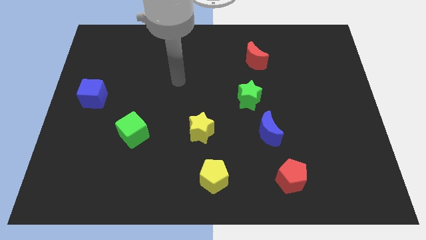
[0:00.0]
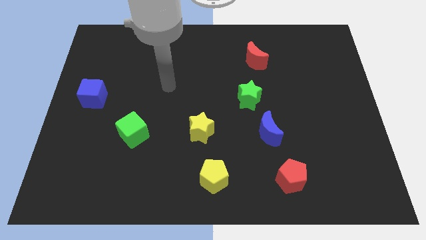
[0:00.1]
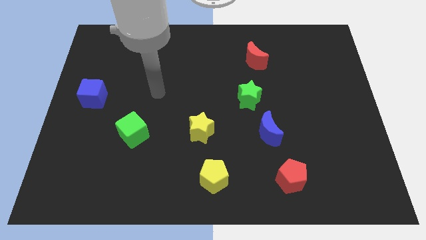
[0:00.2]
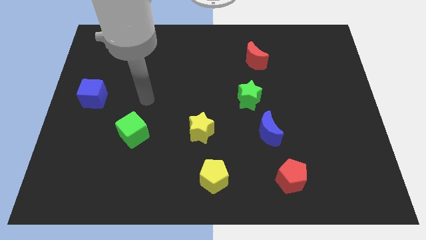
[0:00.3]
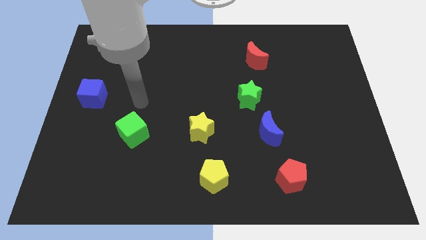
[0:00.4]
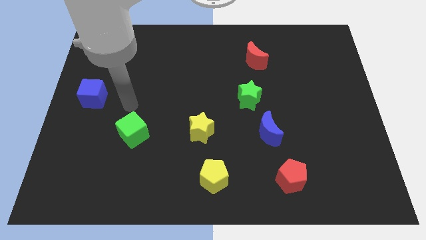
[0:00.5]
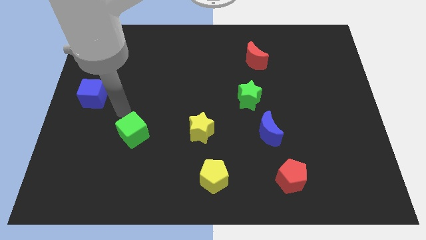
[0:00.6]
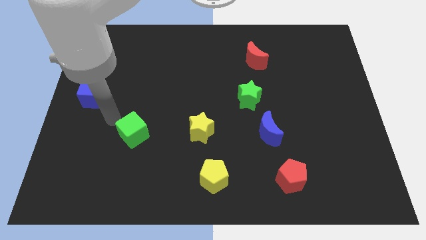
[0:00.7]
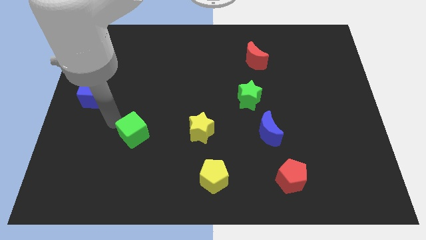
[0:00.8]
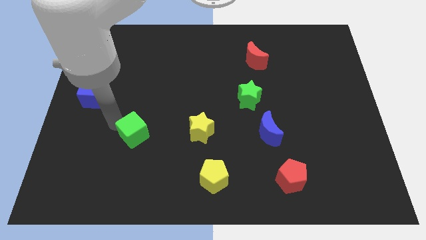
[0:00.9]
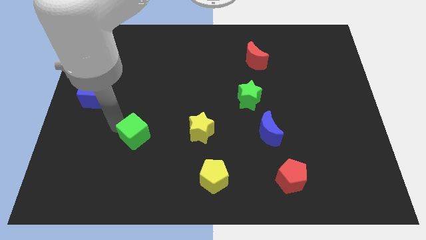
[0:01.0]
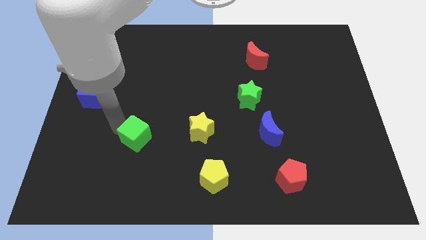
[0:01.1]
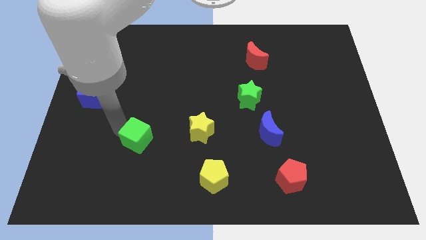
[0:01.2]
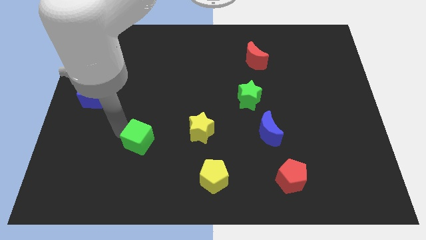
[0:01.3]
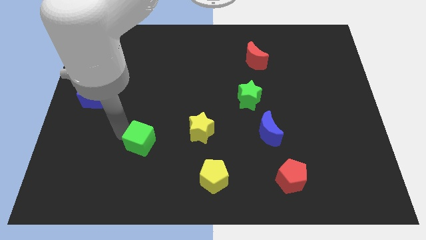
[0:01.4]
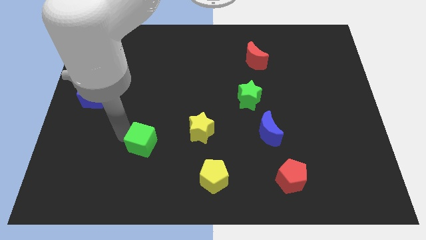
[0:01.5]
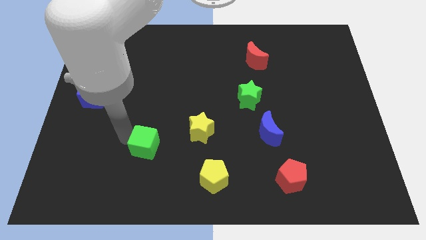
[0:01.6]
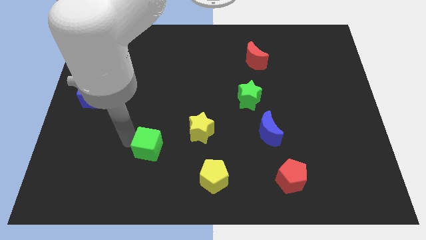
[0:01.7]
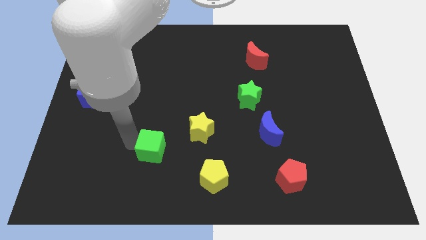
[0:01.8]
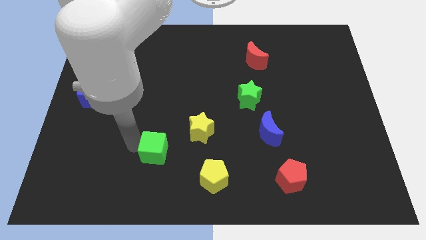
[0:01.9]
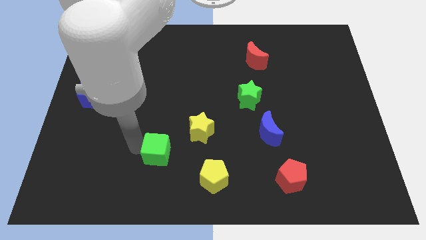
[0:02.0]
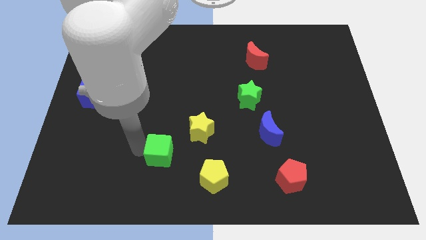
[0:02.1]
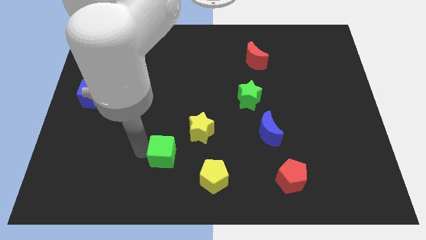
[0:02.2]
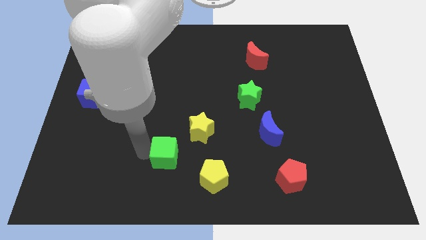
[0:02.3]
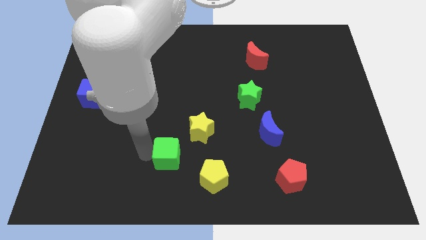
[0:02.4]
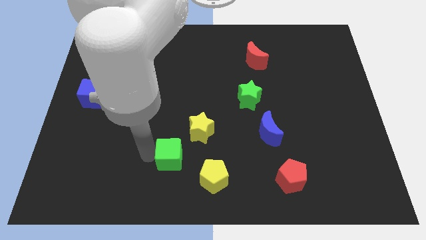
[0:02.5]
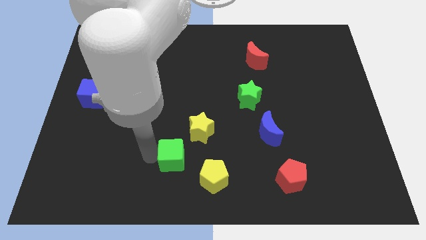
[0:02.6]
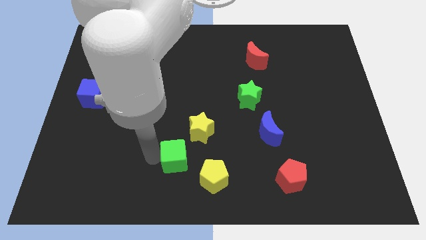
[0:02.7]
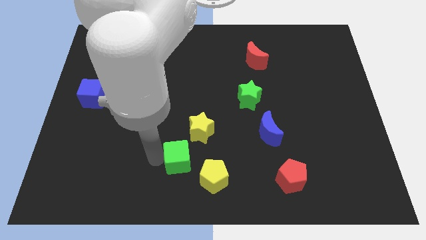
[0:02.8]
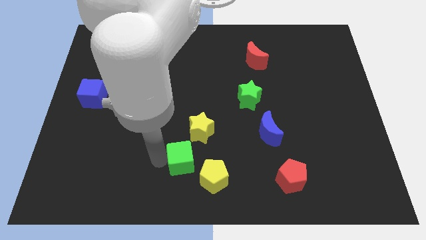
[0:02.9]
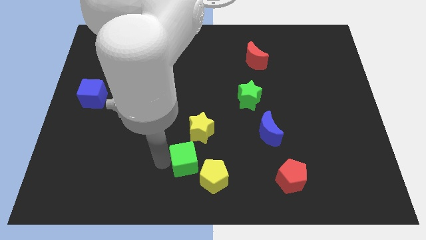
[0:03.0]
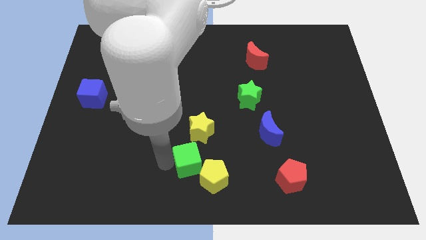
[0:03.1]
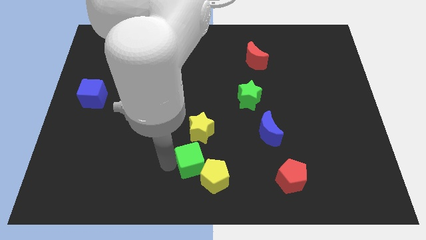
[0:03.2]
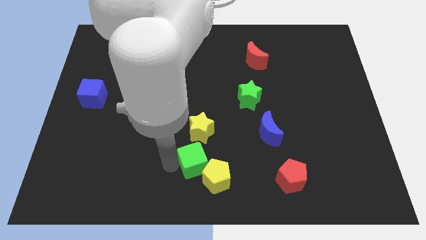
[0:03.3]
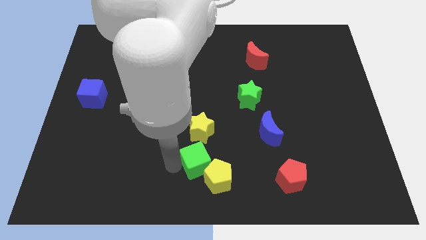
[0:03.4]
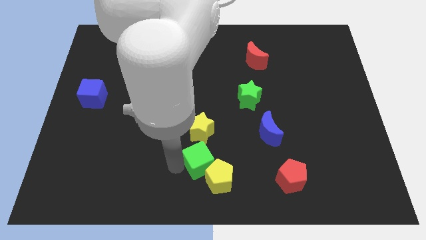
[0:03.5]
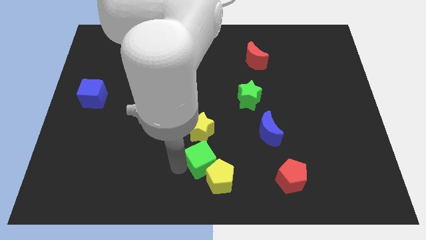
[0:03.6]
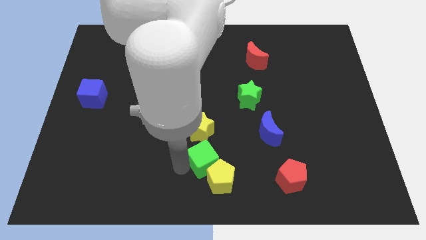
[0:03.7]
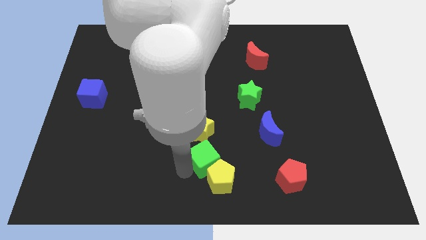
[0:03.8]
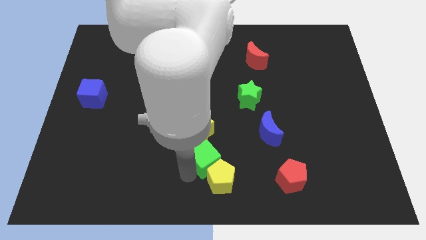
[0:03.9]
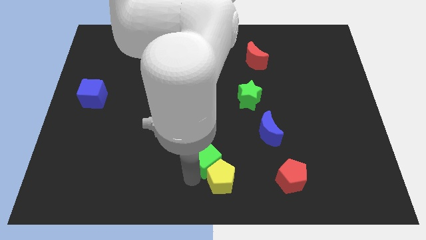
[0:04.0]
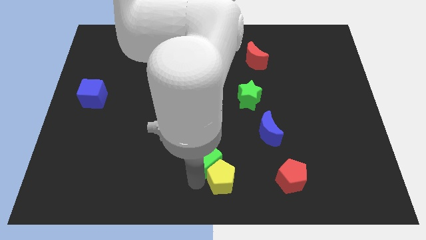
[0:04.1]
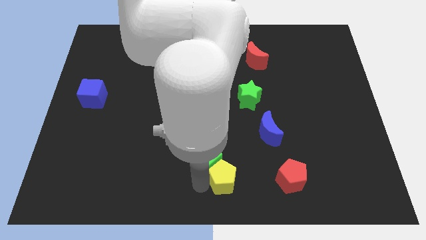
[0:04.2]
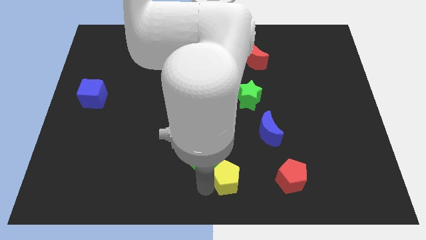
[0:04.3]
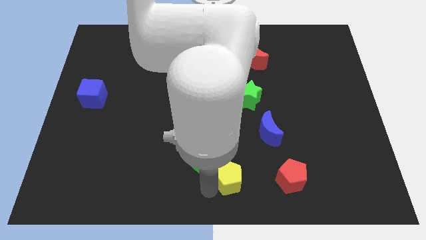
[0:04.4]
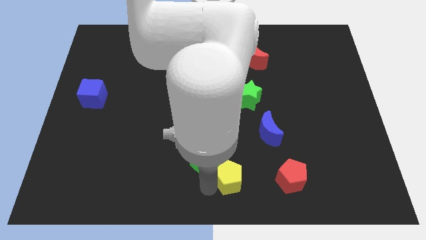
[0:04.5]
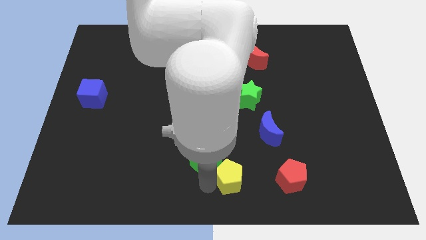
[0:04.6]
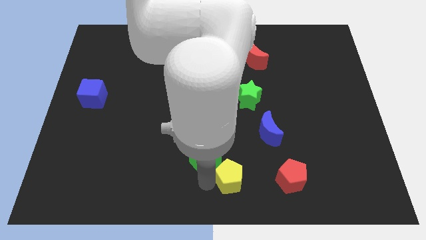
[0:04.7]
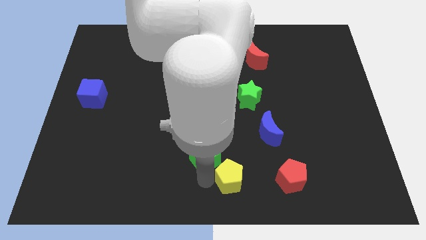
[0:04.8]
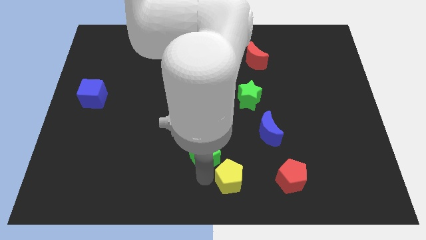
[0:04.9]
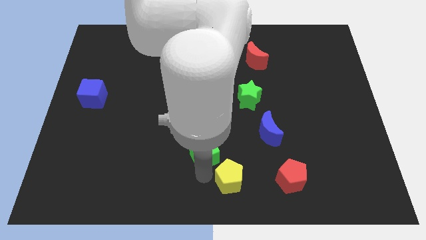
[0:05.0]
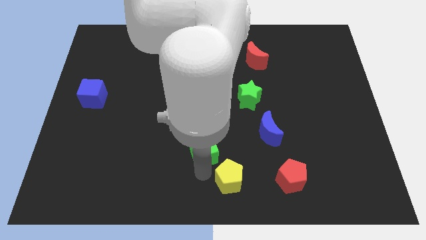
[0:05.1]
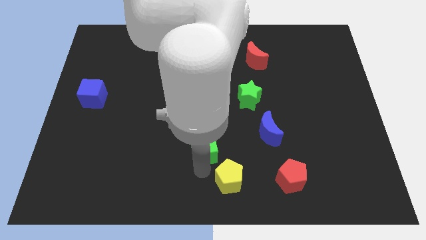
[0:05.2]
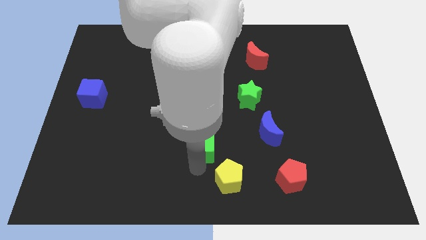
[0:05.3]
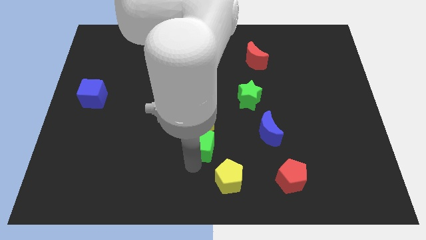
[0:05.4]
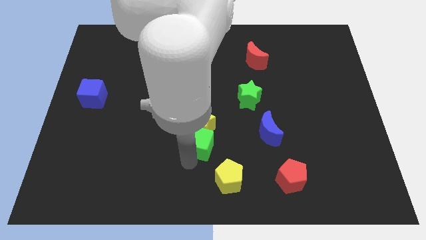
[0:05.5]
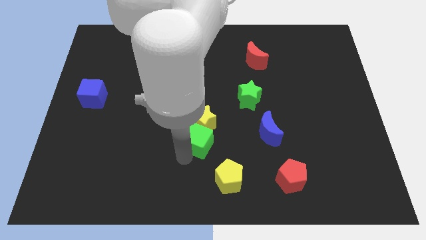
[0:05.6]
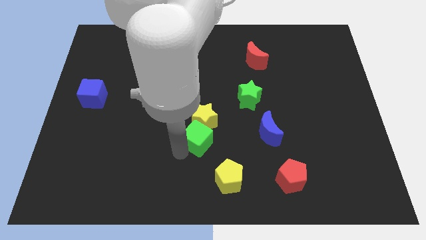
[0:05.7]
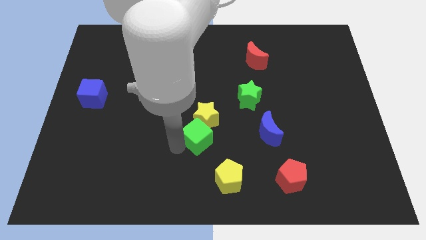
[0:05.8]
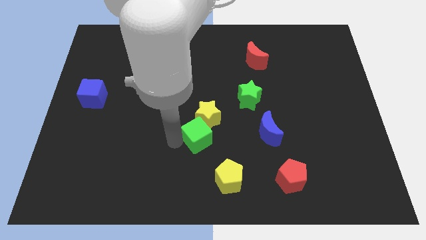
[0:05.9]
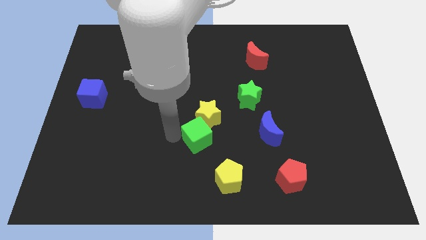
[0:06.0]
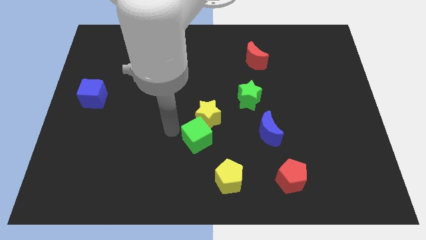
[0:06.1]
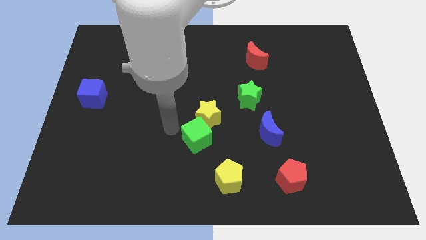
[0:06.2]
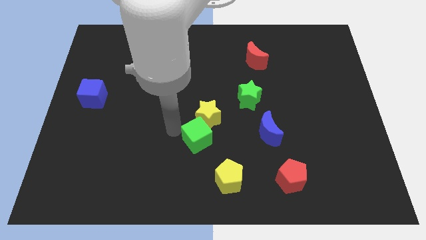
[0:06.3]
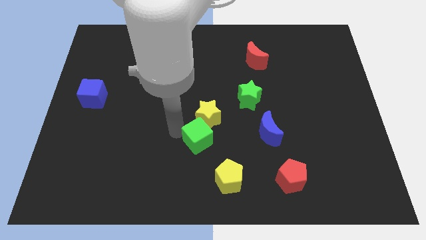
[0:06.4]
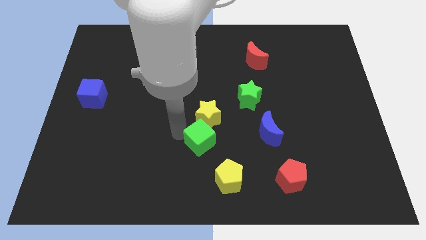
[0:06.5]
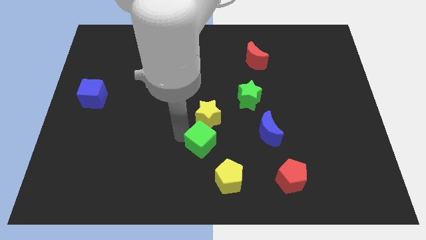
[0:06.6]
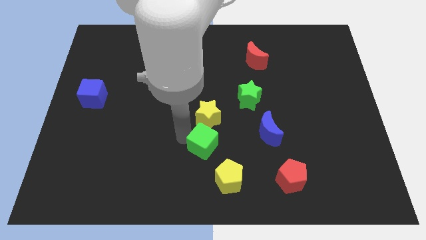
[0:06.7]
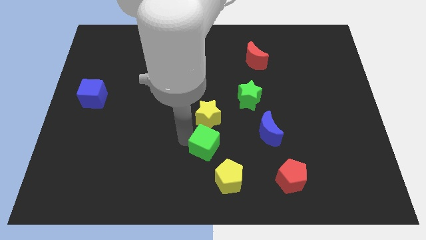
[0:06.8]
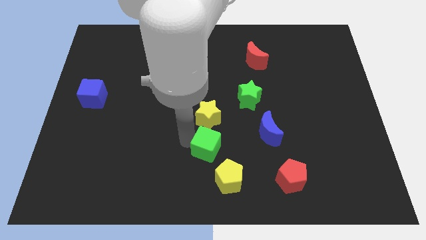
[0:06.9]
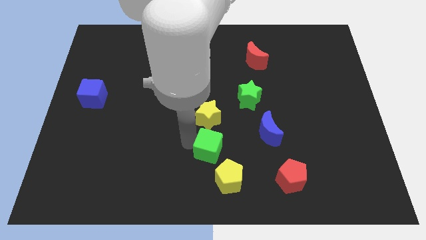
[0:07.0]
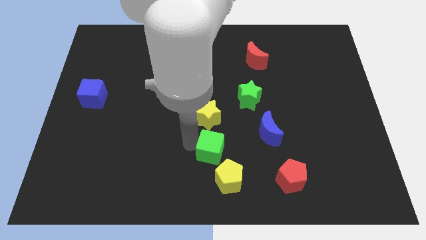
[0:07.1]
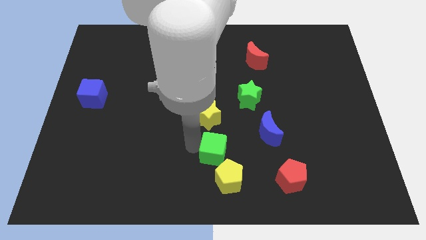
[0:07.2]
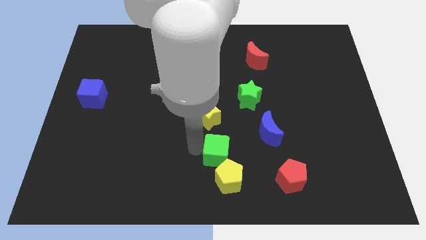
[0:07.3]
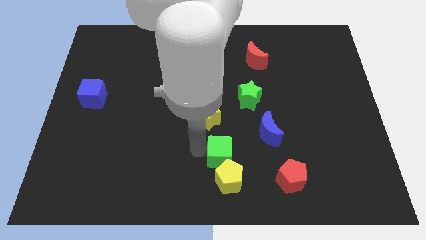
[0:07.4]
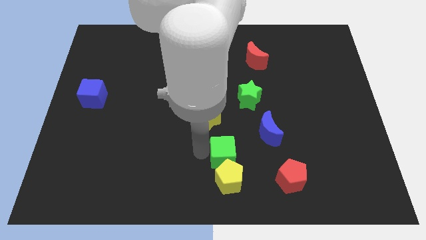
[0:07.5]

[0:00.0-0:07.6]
move the green cube to the bottom left side of the blue moon

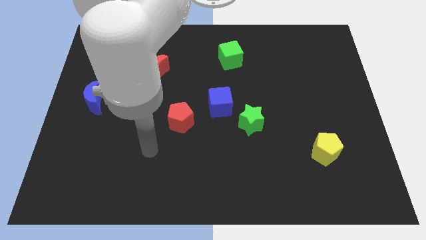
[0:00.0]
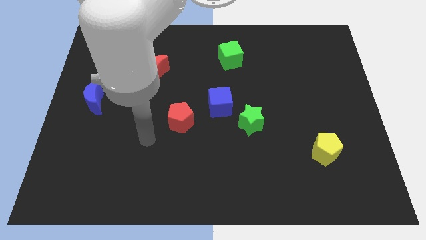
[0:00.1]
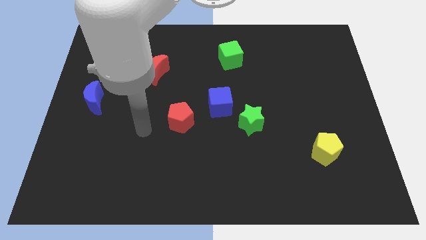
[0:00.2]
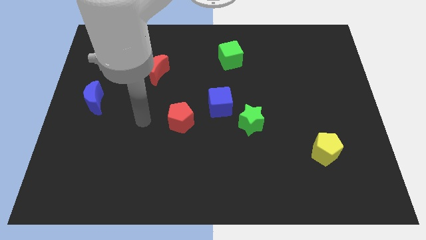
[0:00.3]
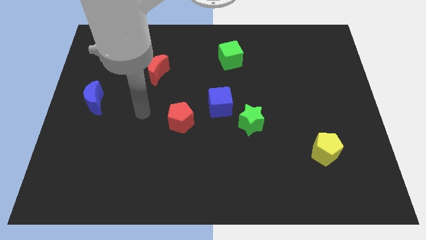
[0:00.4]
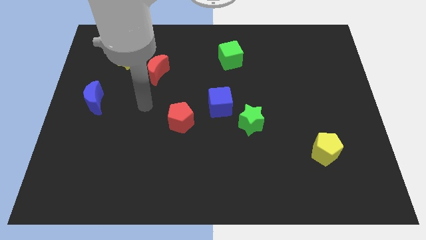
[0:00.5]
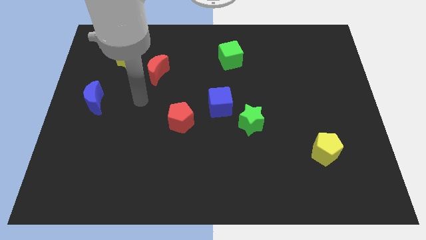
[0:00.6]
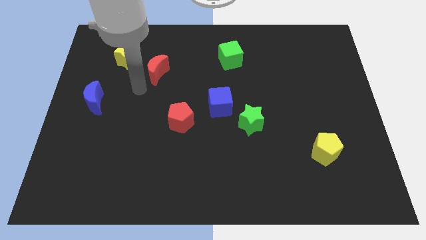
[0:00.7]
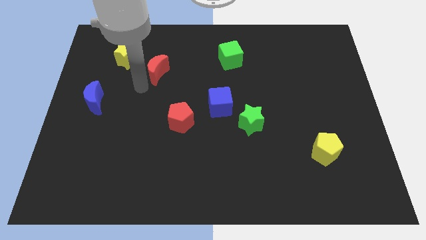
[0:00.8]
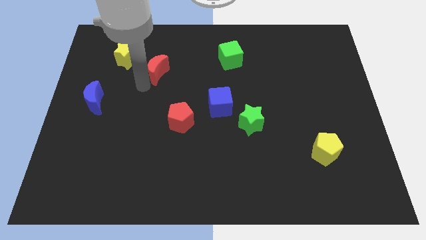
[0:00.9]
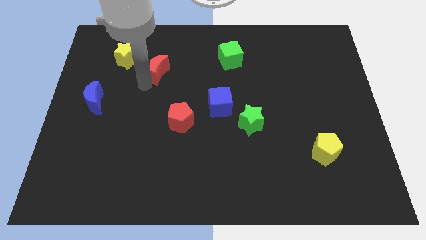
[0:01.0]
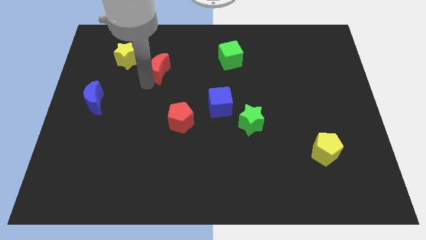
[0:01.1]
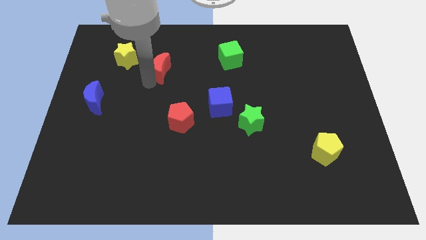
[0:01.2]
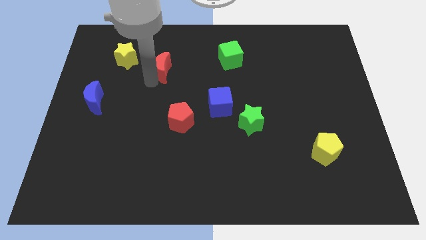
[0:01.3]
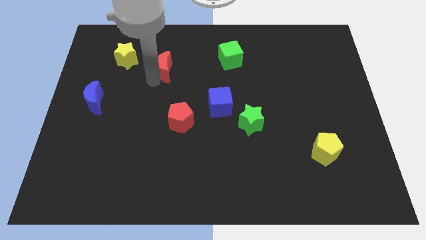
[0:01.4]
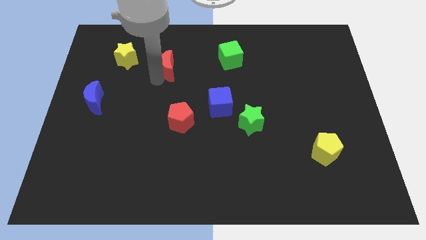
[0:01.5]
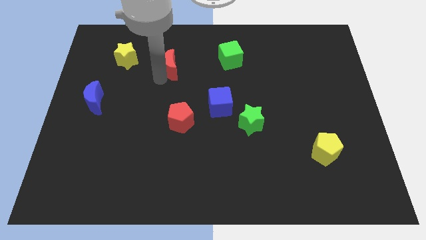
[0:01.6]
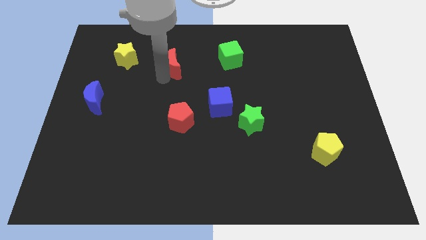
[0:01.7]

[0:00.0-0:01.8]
push the red moon just left of the green cube
